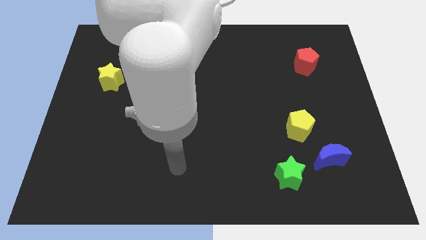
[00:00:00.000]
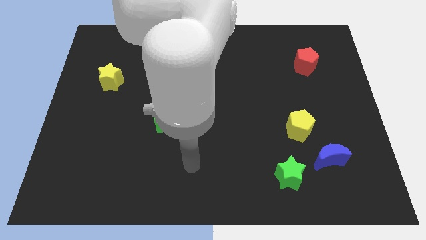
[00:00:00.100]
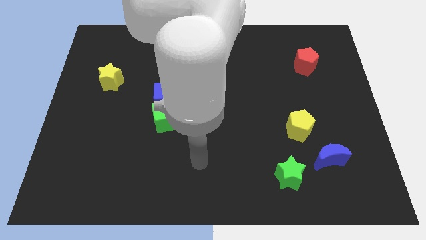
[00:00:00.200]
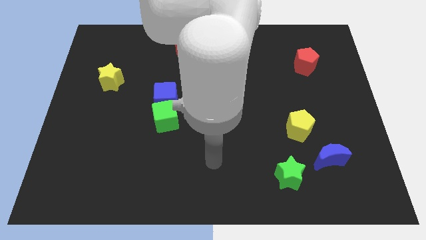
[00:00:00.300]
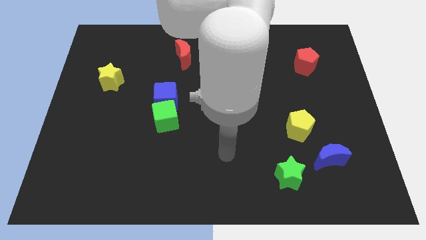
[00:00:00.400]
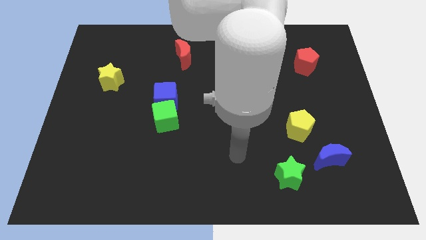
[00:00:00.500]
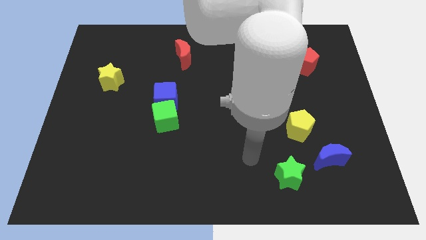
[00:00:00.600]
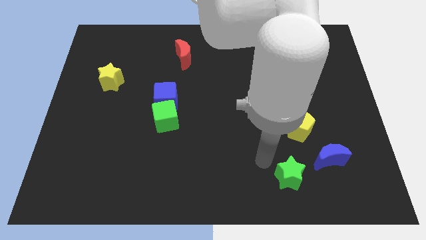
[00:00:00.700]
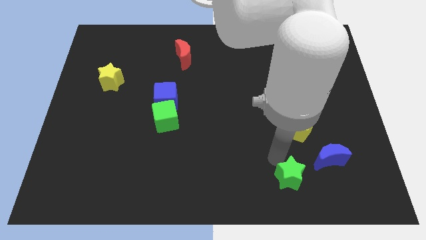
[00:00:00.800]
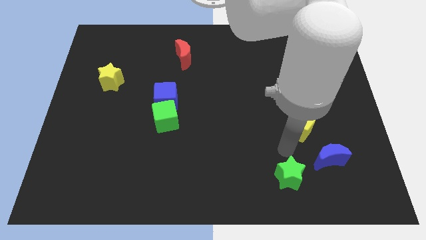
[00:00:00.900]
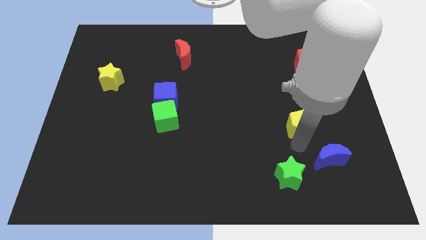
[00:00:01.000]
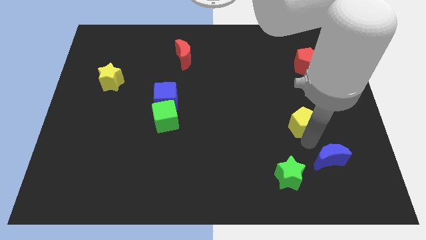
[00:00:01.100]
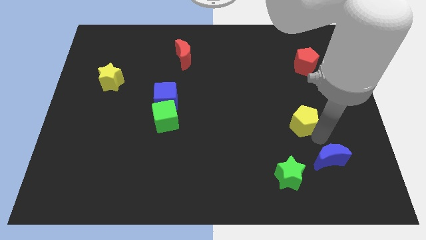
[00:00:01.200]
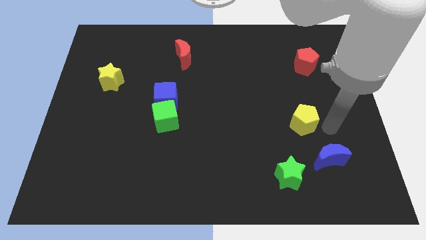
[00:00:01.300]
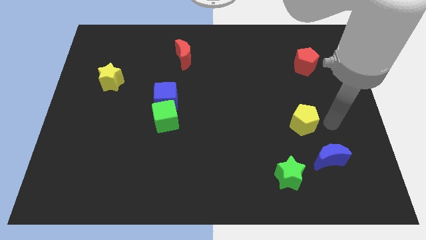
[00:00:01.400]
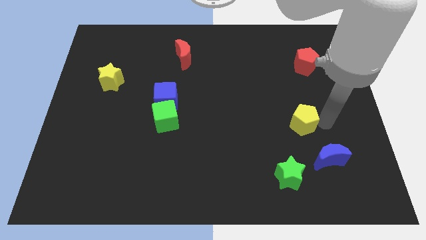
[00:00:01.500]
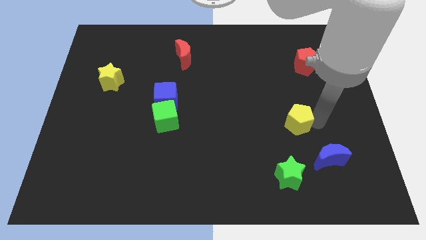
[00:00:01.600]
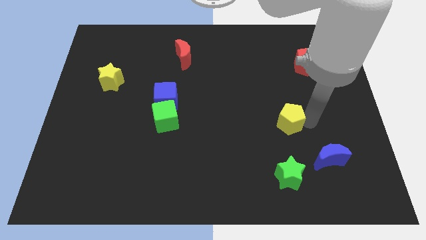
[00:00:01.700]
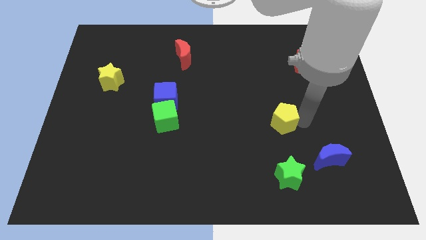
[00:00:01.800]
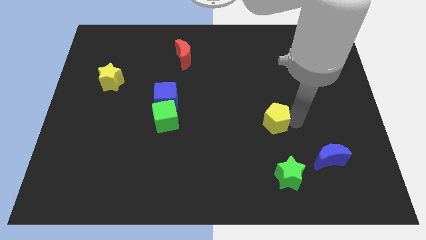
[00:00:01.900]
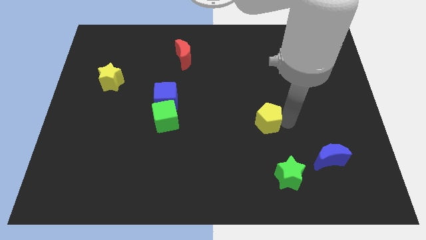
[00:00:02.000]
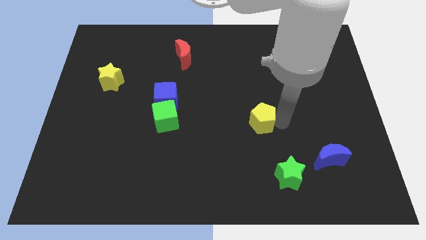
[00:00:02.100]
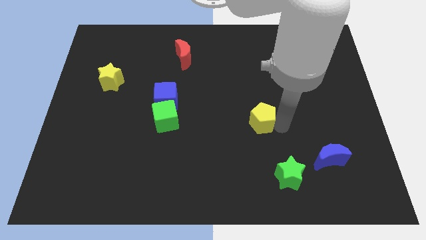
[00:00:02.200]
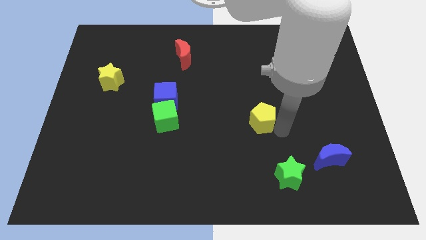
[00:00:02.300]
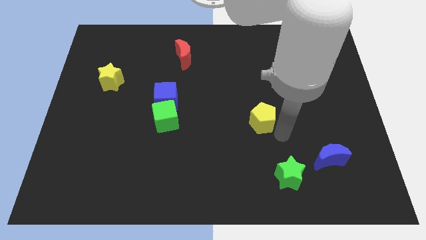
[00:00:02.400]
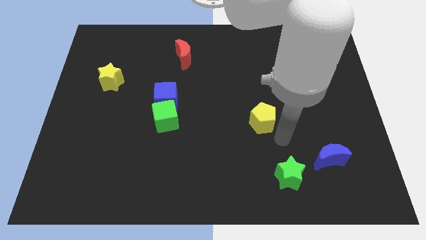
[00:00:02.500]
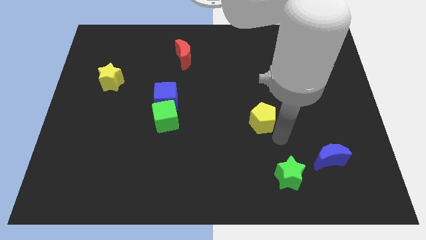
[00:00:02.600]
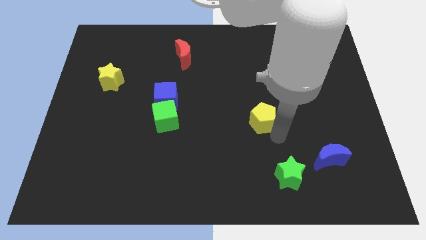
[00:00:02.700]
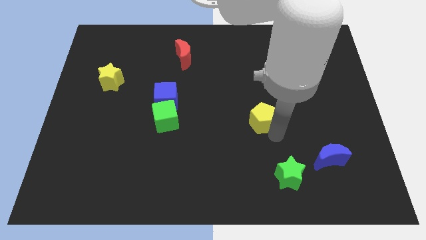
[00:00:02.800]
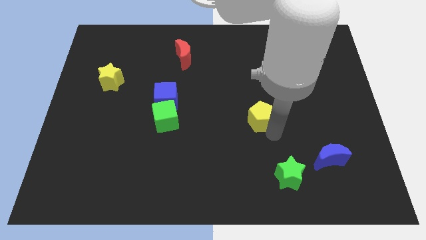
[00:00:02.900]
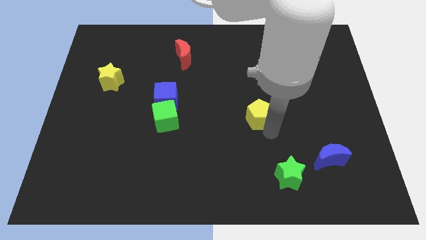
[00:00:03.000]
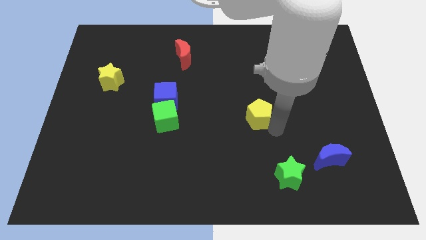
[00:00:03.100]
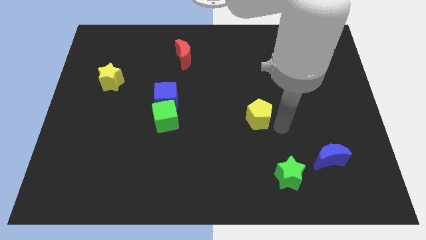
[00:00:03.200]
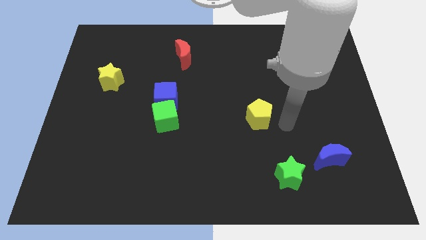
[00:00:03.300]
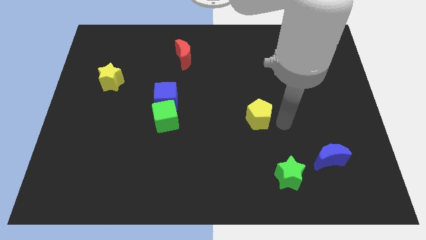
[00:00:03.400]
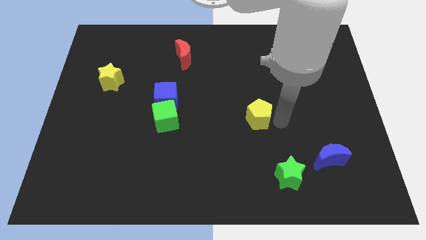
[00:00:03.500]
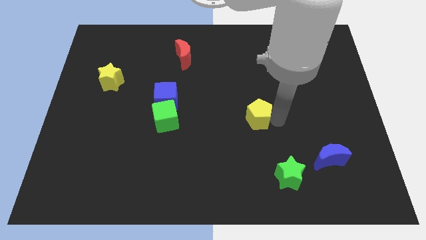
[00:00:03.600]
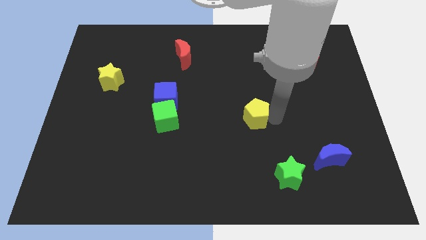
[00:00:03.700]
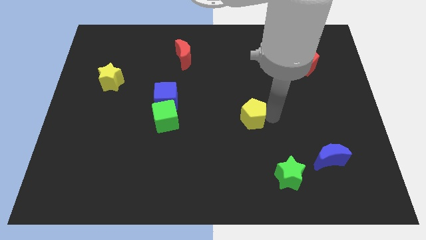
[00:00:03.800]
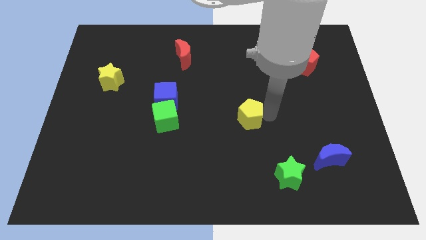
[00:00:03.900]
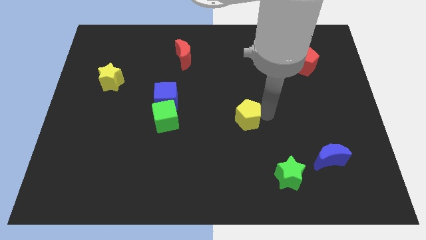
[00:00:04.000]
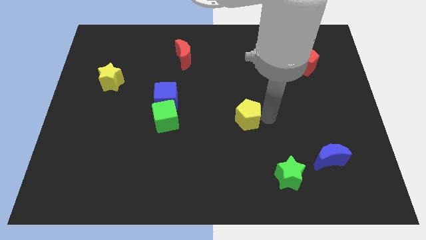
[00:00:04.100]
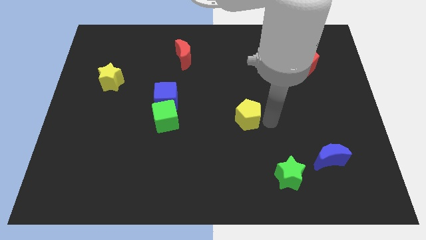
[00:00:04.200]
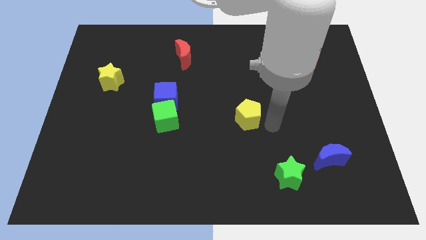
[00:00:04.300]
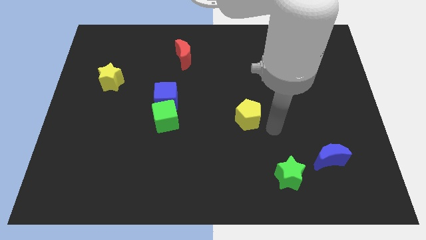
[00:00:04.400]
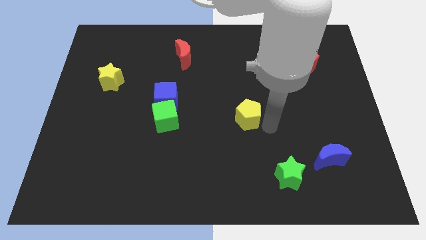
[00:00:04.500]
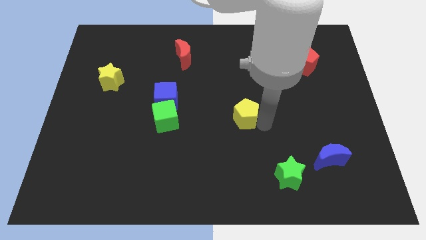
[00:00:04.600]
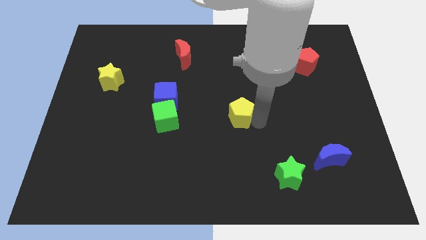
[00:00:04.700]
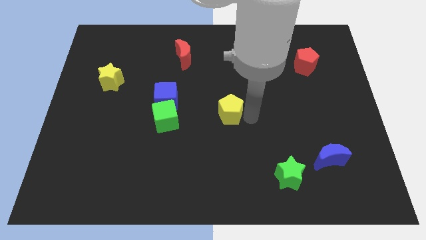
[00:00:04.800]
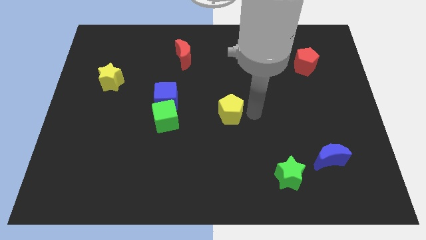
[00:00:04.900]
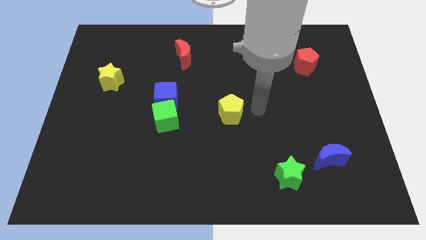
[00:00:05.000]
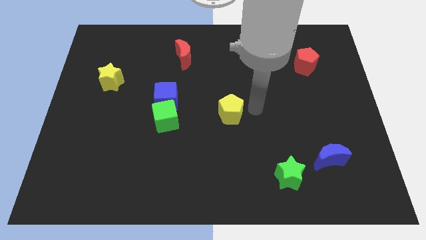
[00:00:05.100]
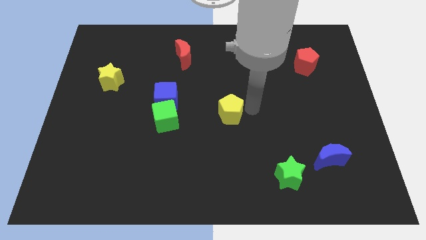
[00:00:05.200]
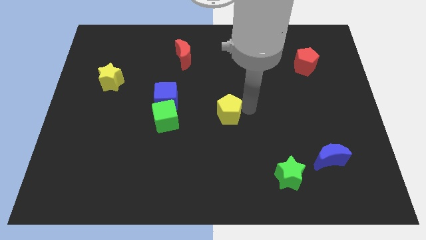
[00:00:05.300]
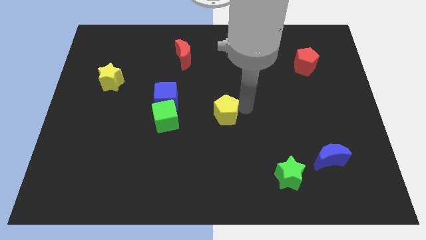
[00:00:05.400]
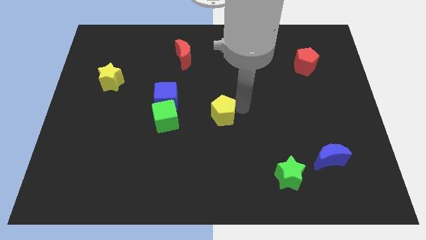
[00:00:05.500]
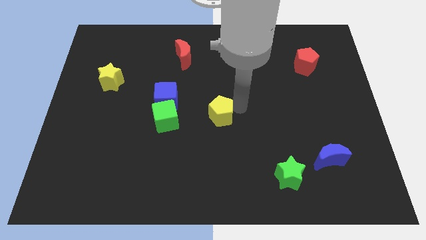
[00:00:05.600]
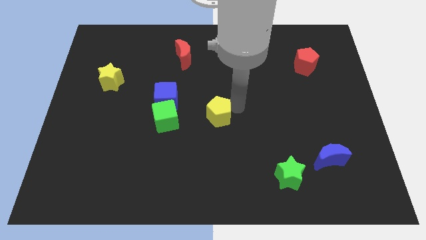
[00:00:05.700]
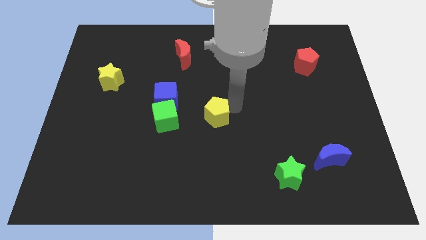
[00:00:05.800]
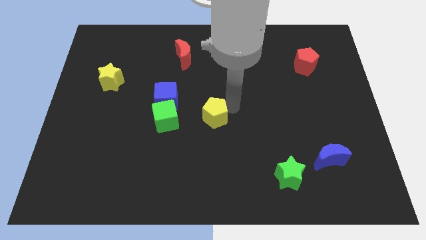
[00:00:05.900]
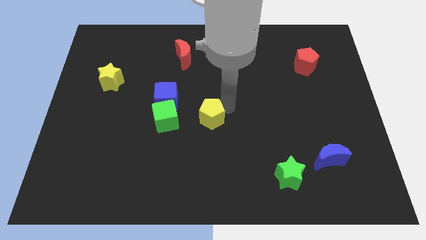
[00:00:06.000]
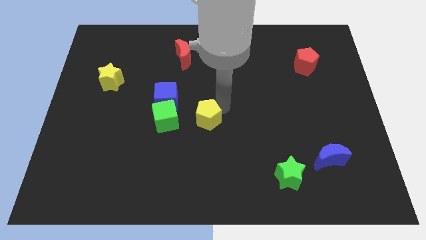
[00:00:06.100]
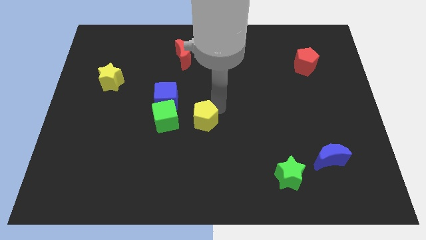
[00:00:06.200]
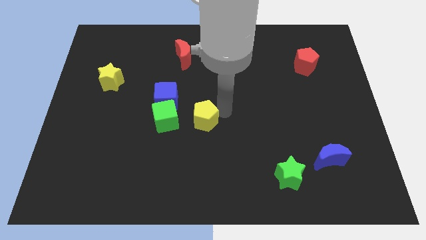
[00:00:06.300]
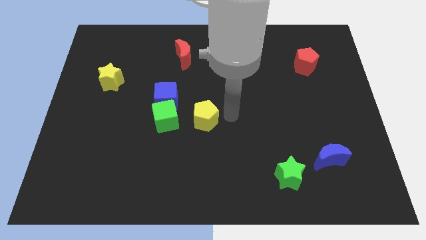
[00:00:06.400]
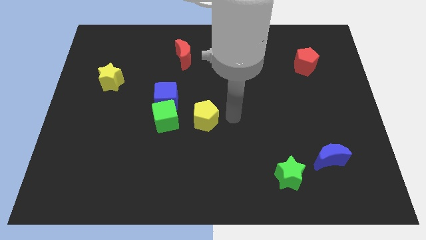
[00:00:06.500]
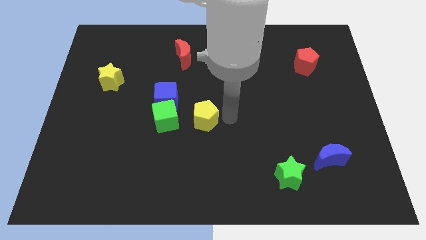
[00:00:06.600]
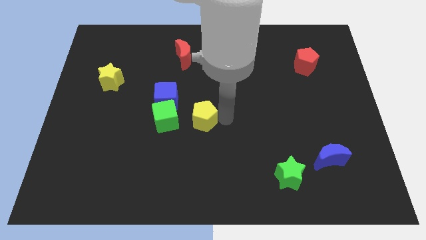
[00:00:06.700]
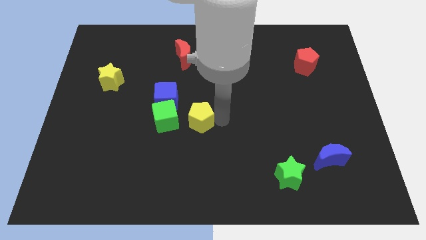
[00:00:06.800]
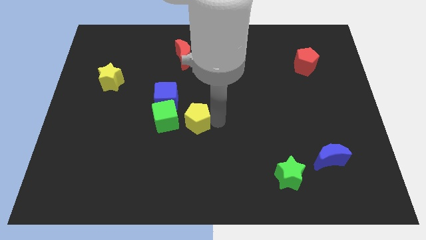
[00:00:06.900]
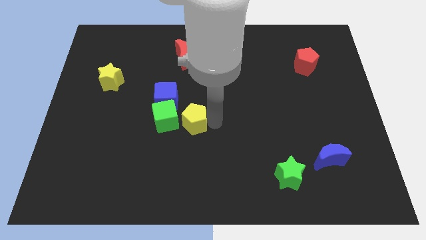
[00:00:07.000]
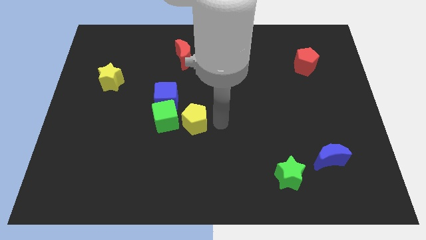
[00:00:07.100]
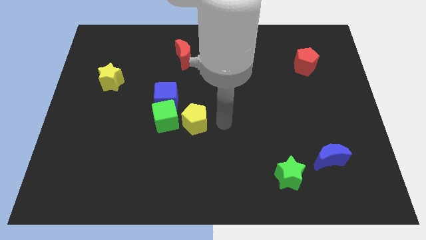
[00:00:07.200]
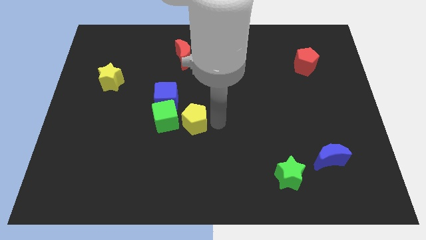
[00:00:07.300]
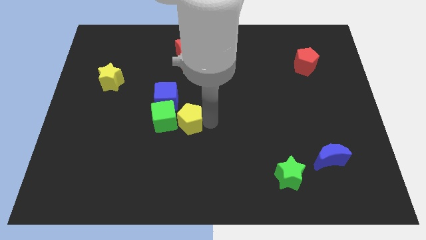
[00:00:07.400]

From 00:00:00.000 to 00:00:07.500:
push the yellow pentagon towards the green cube
